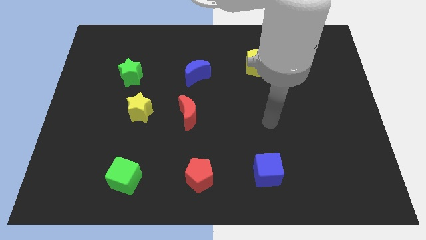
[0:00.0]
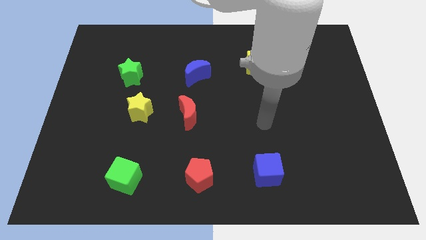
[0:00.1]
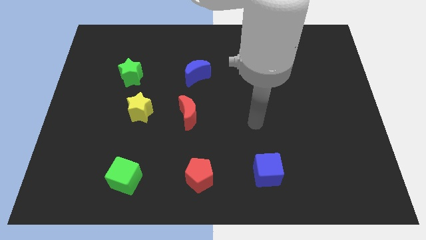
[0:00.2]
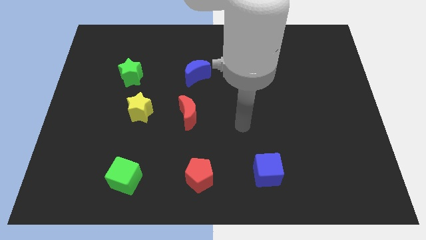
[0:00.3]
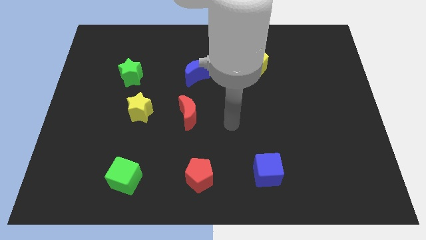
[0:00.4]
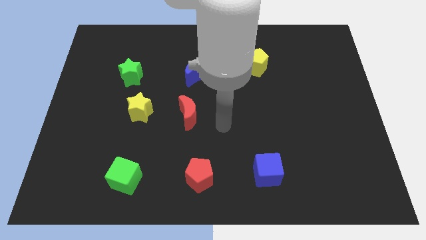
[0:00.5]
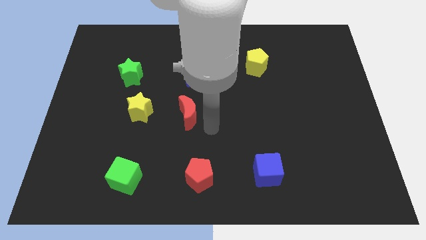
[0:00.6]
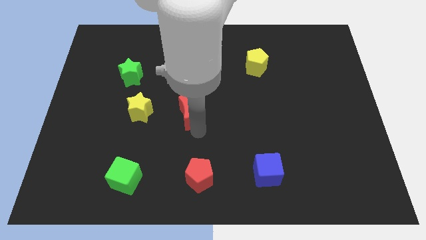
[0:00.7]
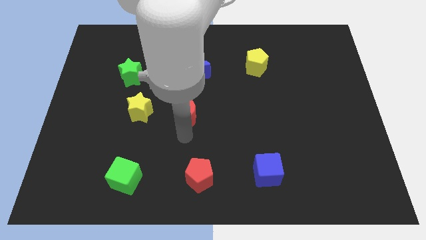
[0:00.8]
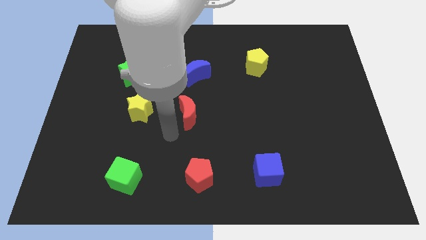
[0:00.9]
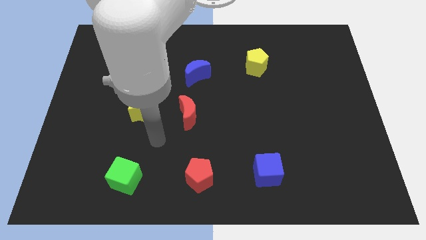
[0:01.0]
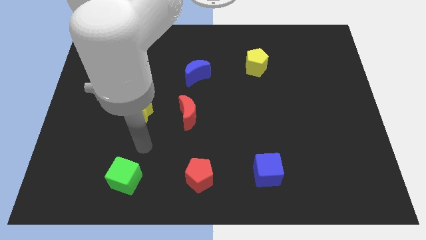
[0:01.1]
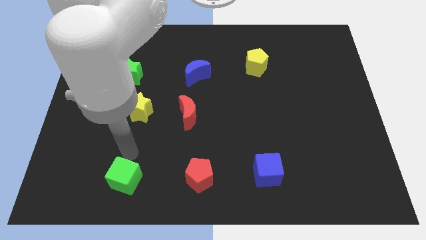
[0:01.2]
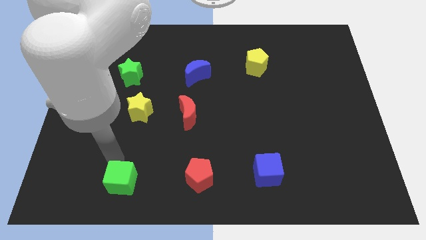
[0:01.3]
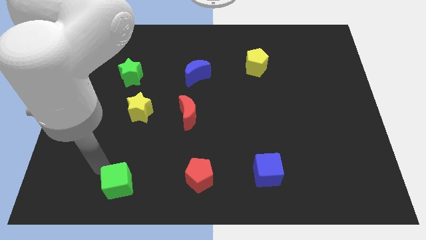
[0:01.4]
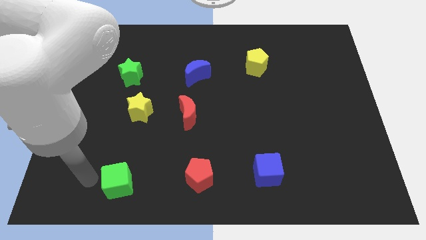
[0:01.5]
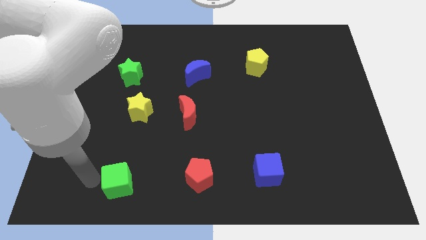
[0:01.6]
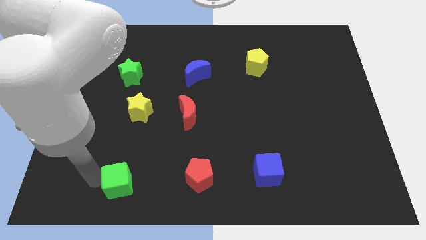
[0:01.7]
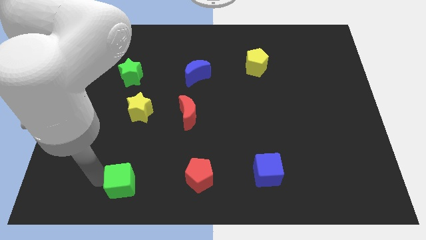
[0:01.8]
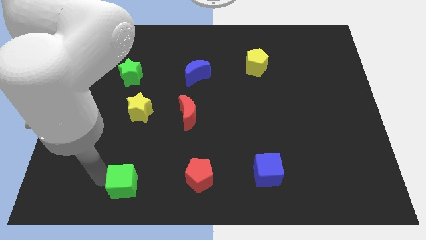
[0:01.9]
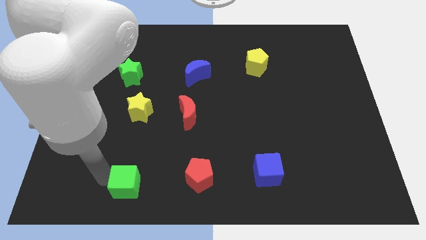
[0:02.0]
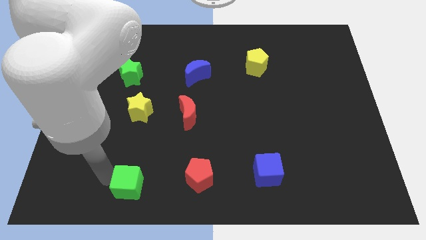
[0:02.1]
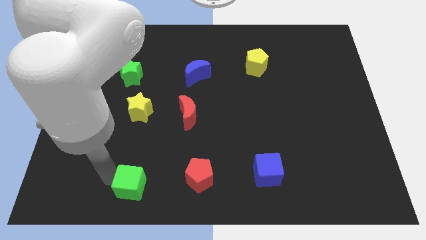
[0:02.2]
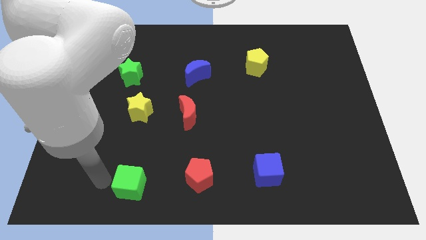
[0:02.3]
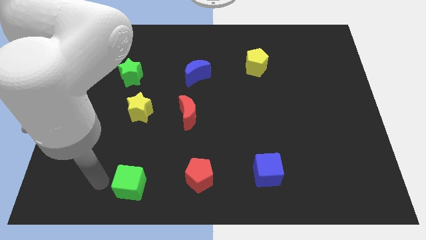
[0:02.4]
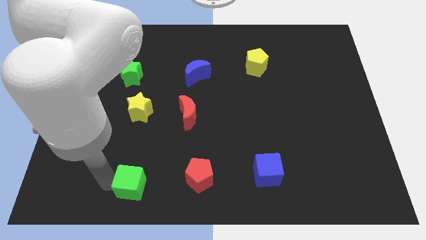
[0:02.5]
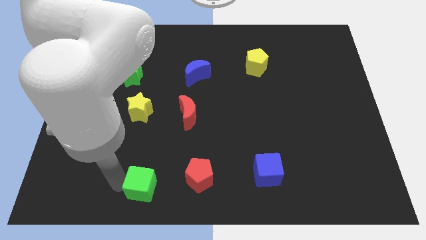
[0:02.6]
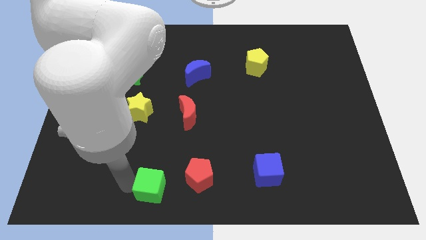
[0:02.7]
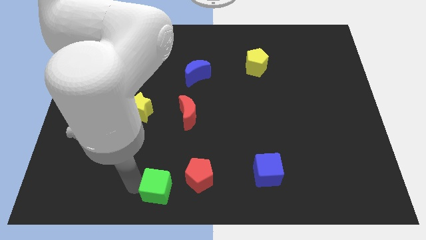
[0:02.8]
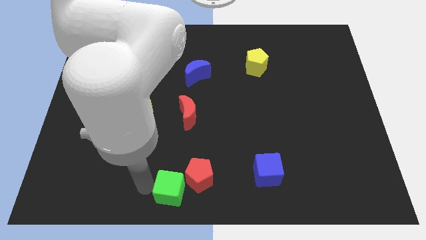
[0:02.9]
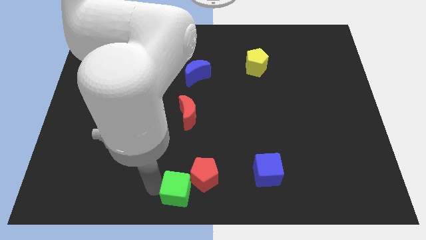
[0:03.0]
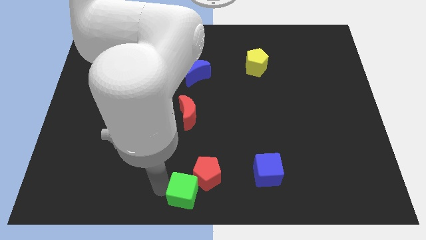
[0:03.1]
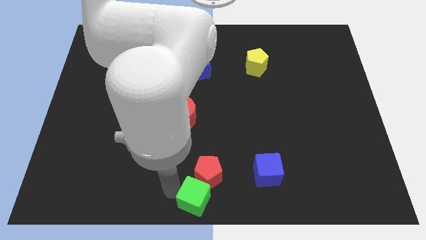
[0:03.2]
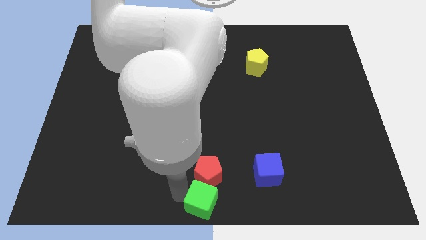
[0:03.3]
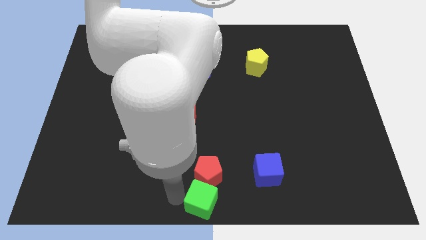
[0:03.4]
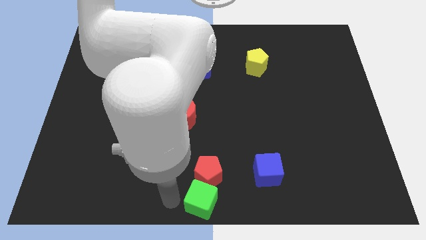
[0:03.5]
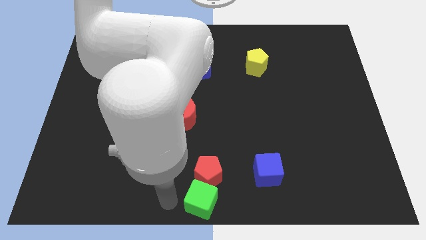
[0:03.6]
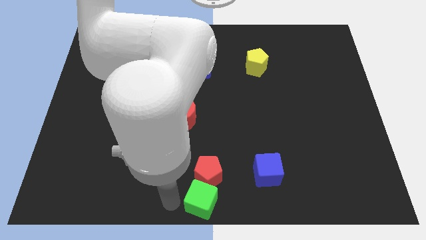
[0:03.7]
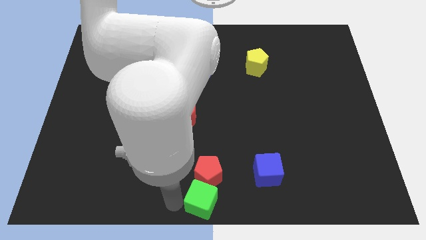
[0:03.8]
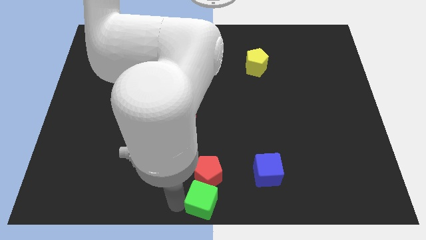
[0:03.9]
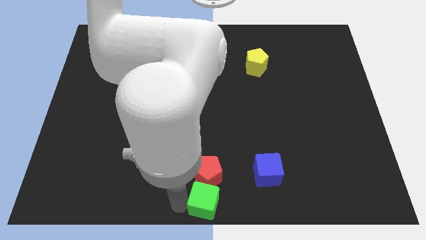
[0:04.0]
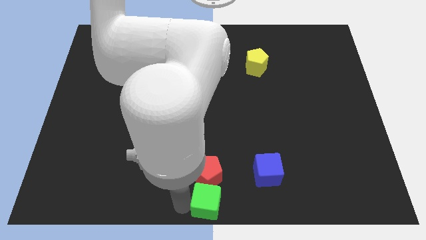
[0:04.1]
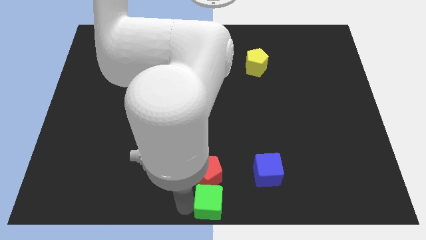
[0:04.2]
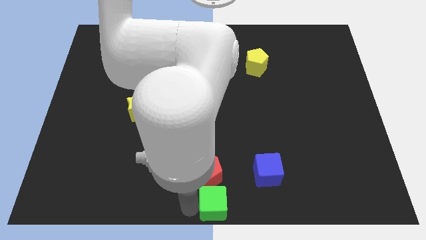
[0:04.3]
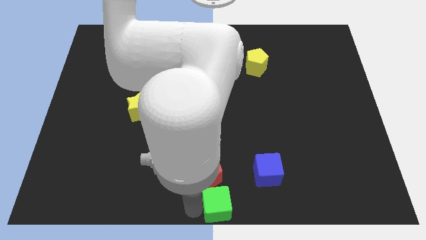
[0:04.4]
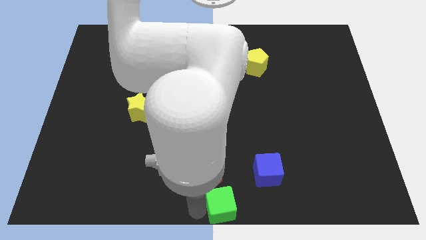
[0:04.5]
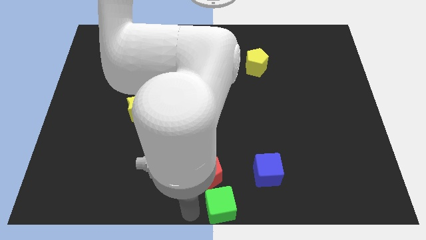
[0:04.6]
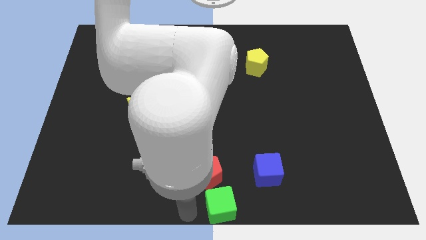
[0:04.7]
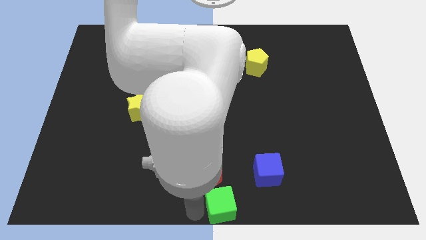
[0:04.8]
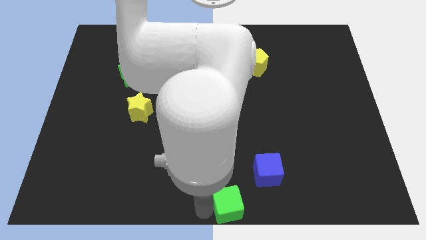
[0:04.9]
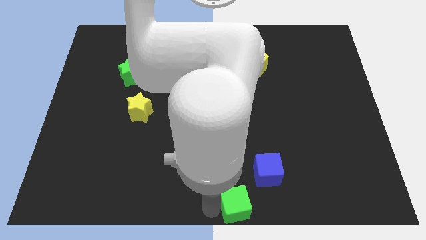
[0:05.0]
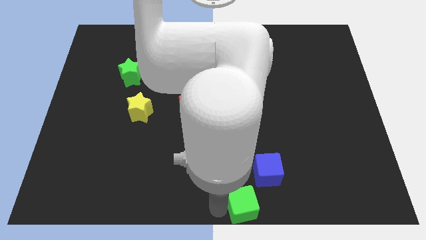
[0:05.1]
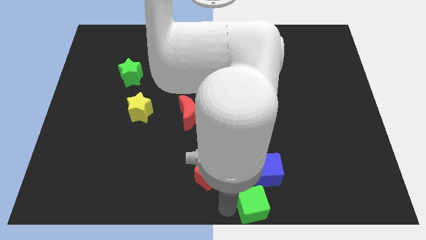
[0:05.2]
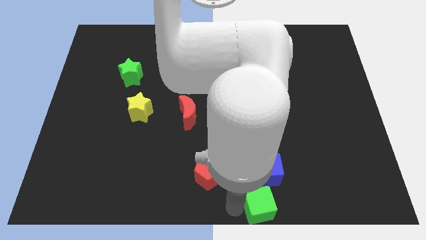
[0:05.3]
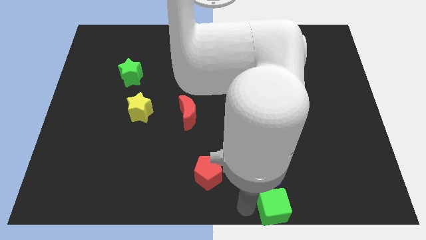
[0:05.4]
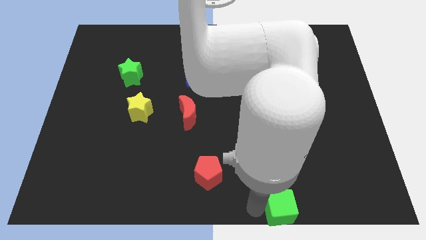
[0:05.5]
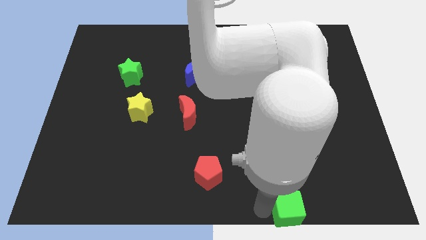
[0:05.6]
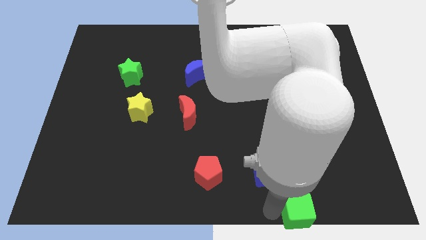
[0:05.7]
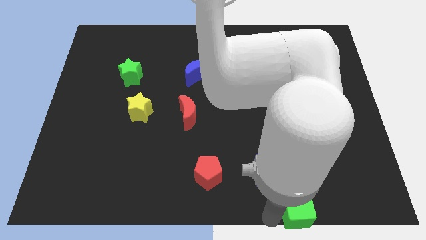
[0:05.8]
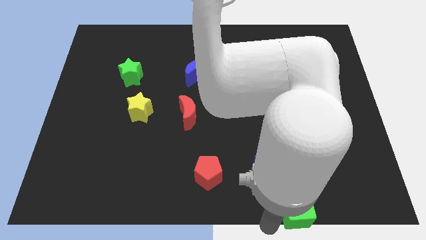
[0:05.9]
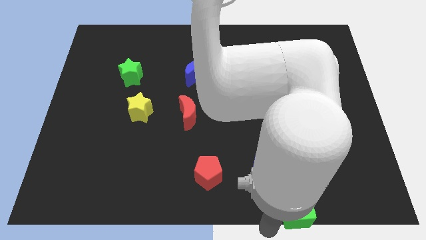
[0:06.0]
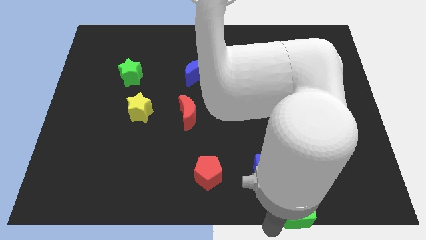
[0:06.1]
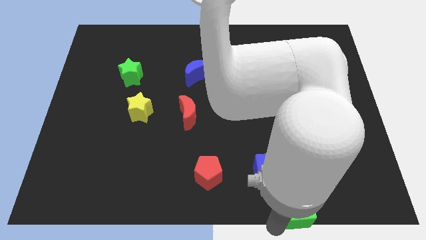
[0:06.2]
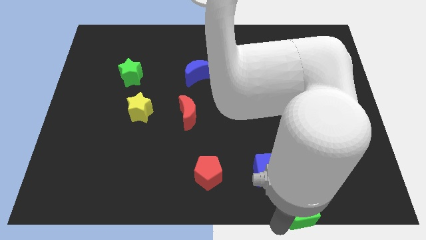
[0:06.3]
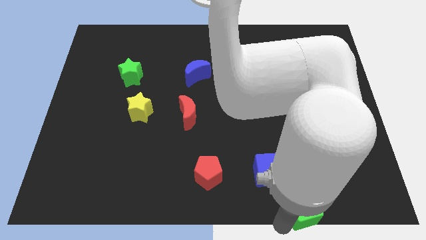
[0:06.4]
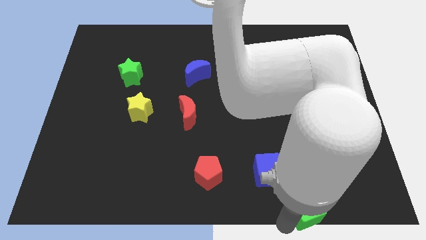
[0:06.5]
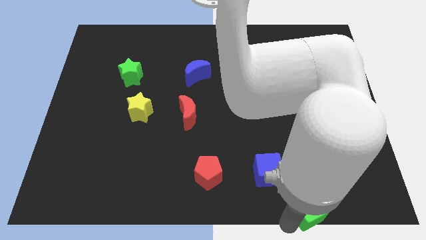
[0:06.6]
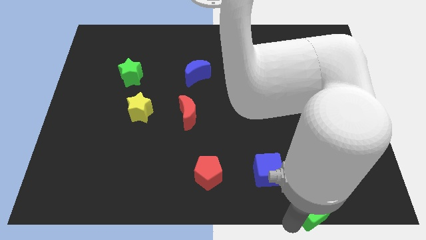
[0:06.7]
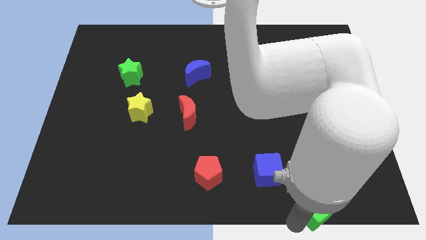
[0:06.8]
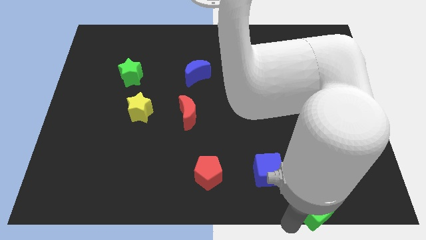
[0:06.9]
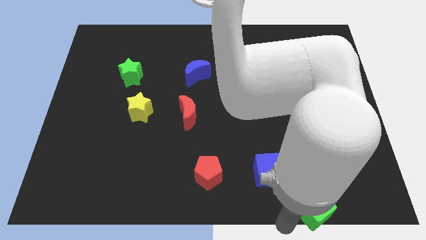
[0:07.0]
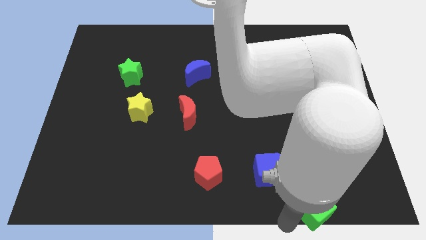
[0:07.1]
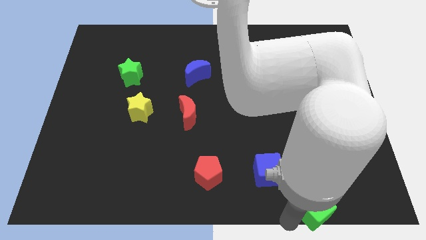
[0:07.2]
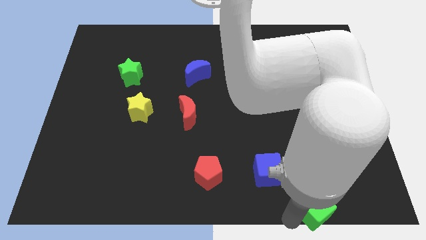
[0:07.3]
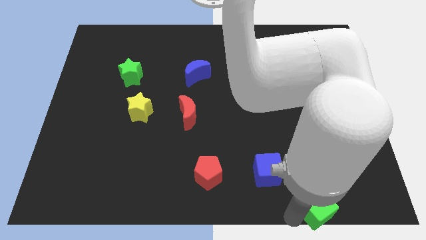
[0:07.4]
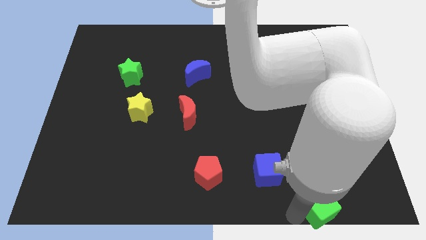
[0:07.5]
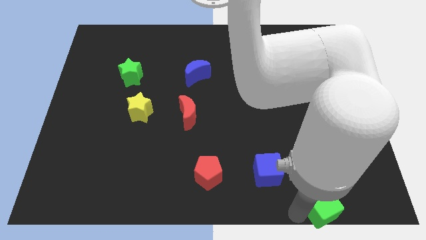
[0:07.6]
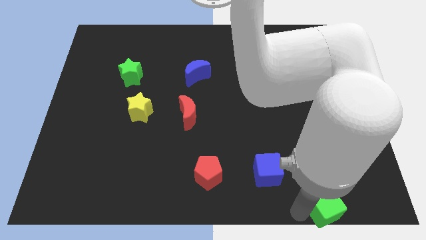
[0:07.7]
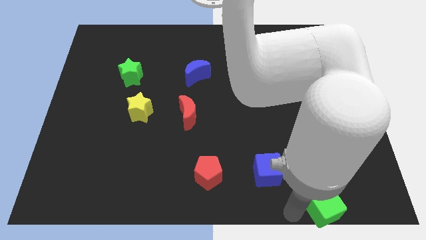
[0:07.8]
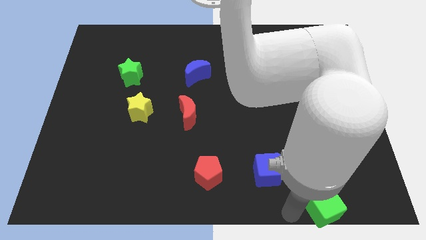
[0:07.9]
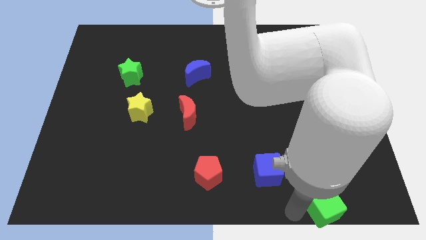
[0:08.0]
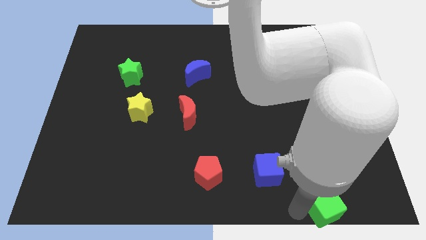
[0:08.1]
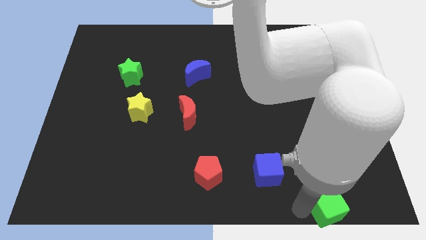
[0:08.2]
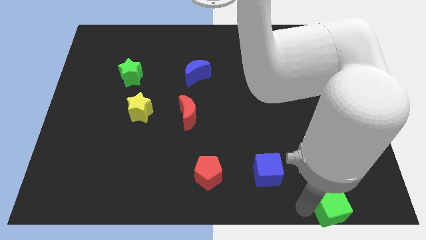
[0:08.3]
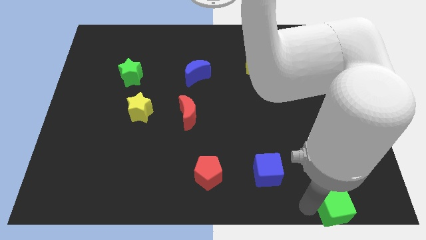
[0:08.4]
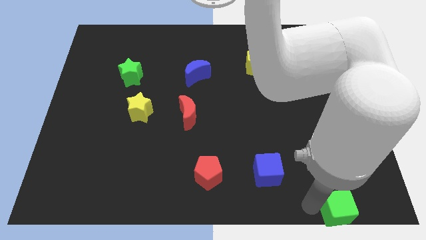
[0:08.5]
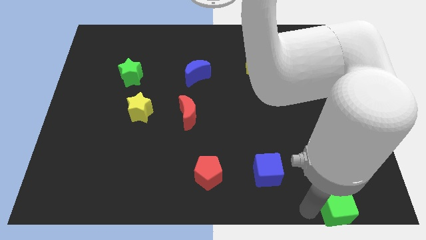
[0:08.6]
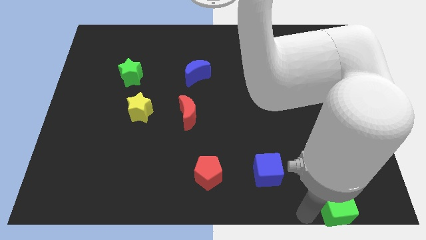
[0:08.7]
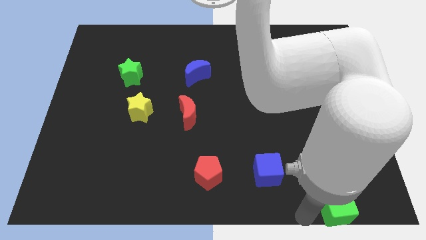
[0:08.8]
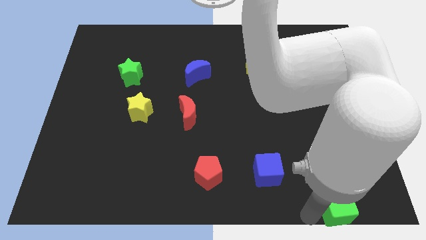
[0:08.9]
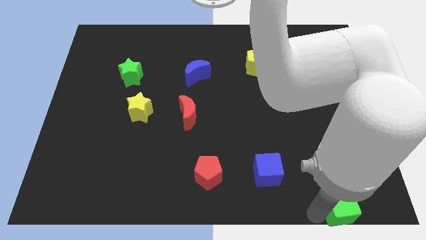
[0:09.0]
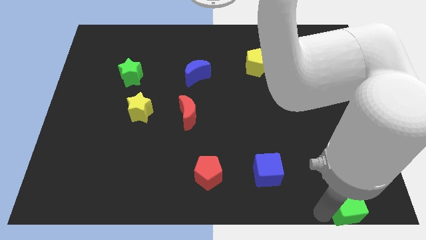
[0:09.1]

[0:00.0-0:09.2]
push the green cube to the bottom right of the board
